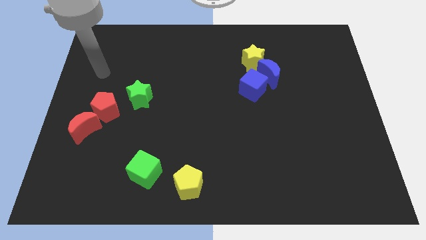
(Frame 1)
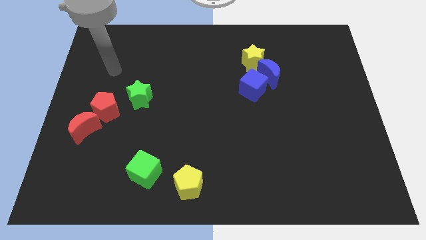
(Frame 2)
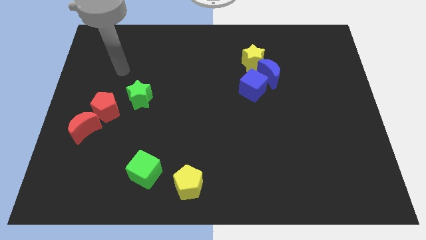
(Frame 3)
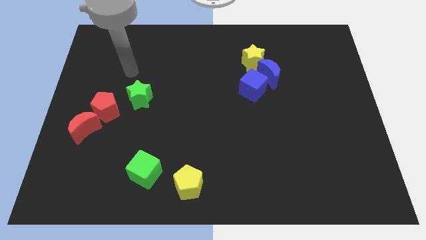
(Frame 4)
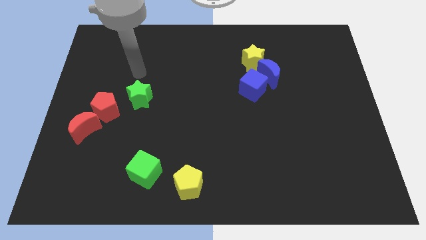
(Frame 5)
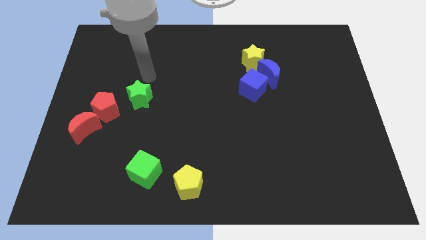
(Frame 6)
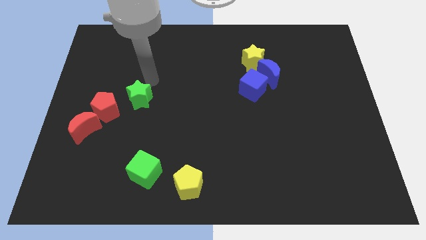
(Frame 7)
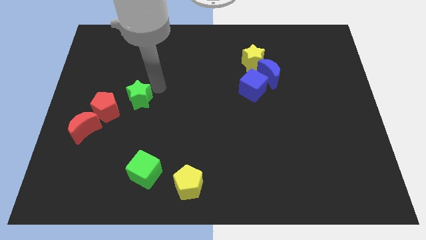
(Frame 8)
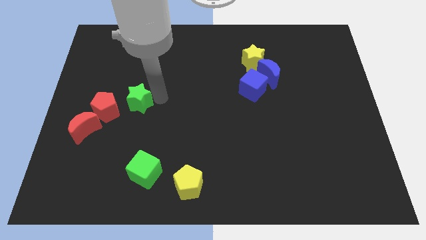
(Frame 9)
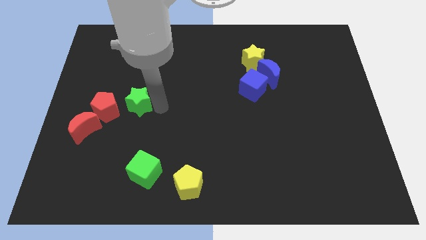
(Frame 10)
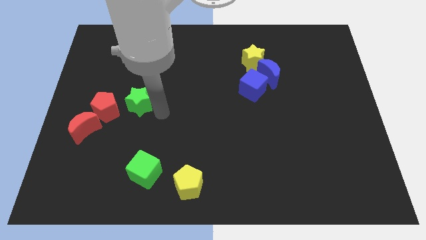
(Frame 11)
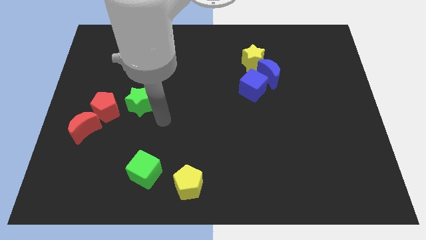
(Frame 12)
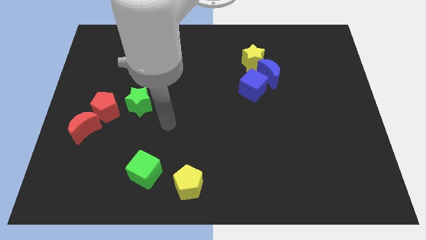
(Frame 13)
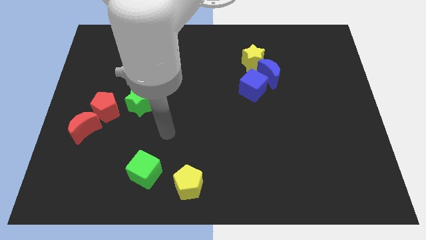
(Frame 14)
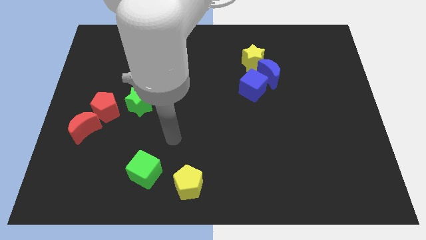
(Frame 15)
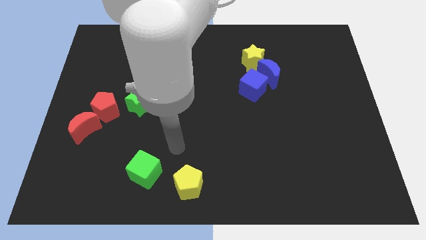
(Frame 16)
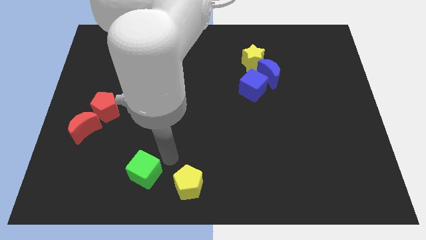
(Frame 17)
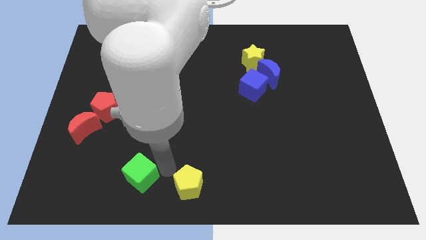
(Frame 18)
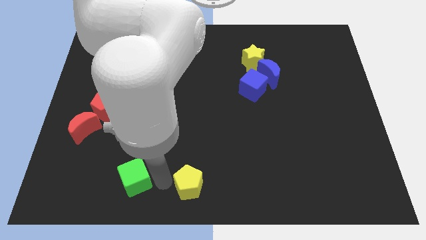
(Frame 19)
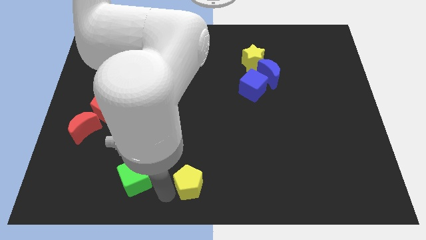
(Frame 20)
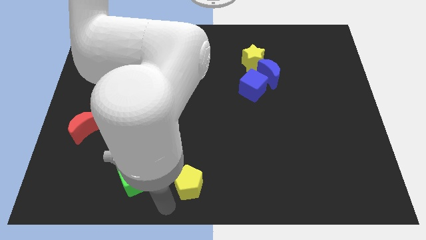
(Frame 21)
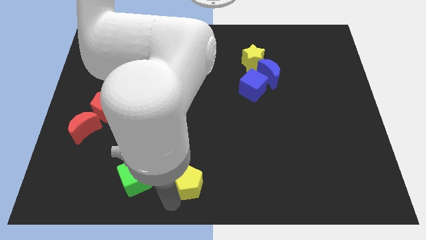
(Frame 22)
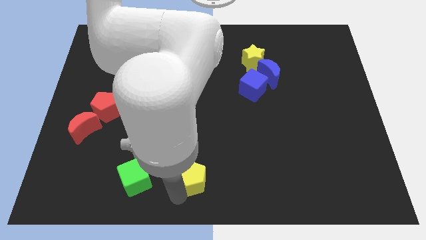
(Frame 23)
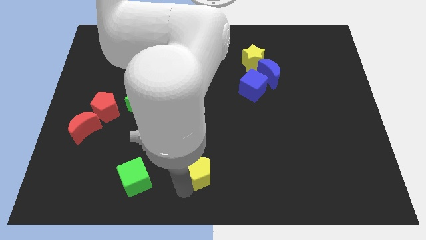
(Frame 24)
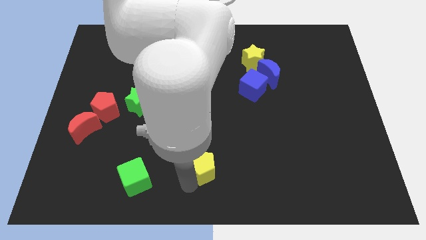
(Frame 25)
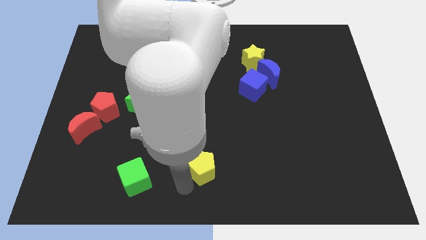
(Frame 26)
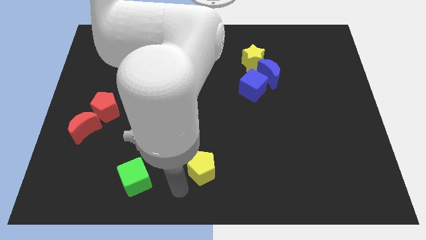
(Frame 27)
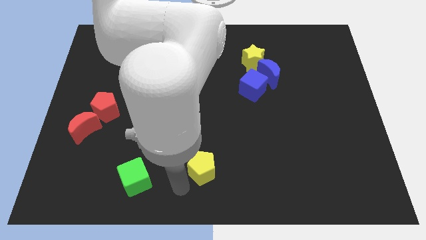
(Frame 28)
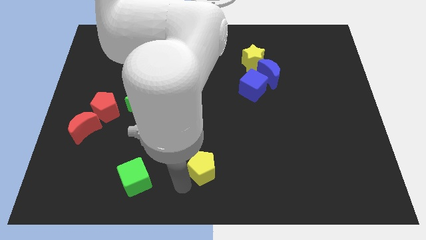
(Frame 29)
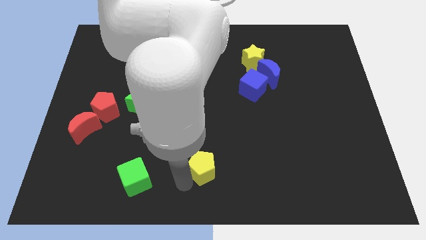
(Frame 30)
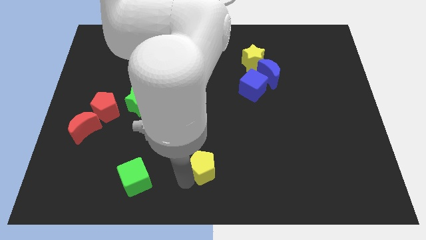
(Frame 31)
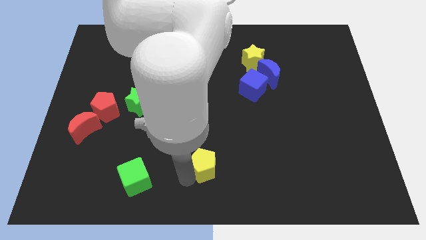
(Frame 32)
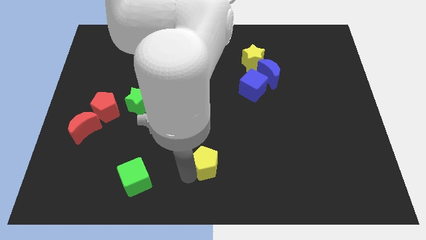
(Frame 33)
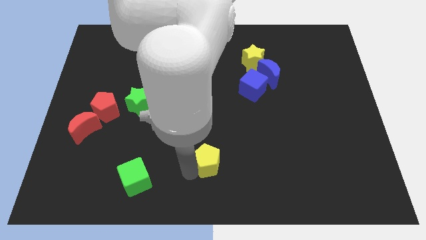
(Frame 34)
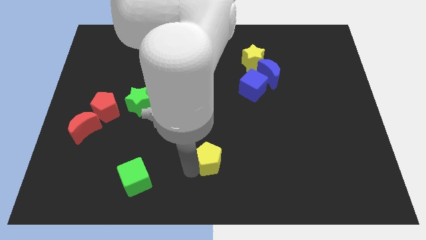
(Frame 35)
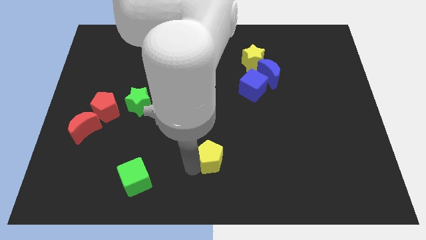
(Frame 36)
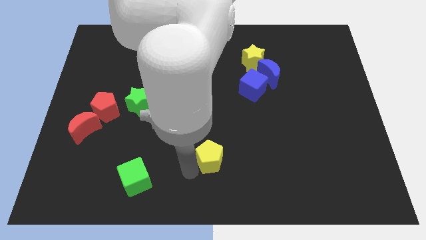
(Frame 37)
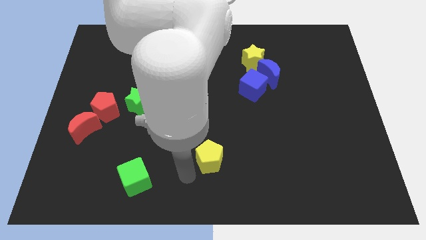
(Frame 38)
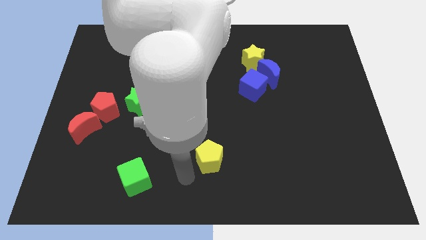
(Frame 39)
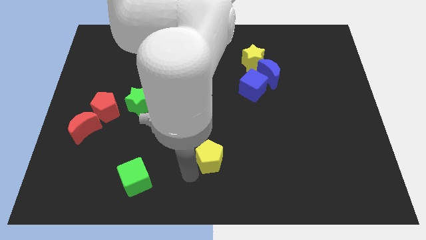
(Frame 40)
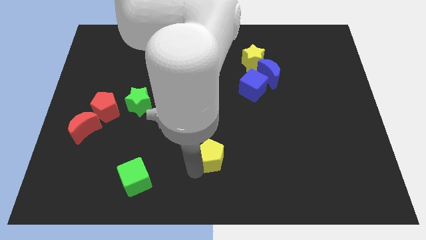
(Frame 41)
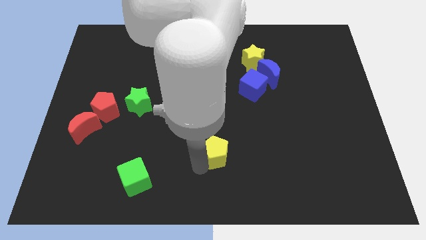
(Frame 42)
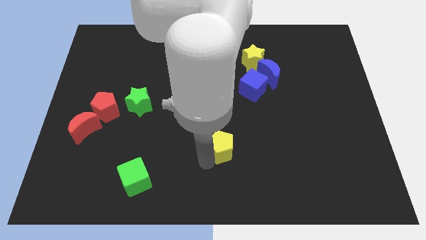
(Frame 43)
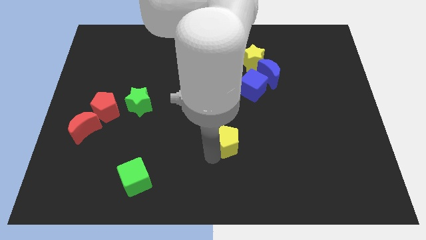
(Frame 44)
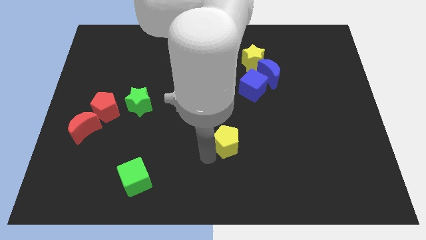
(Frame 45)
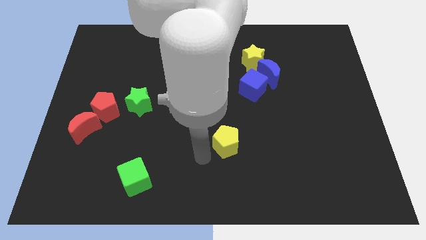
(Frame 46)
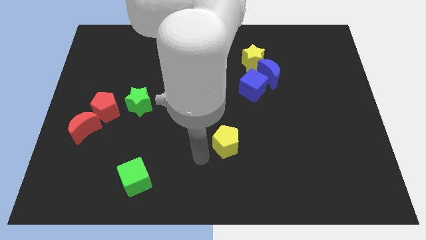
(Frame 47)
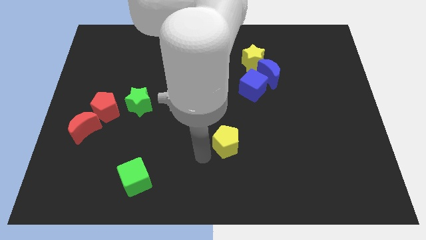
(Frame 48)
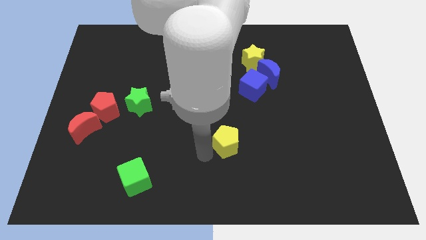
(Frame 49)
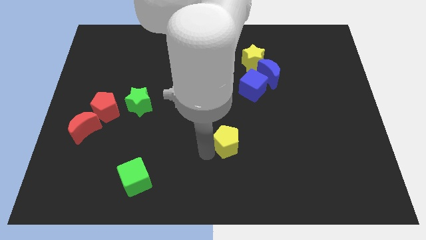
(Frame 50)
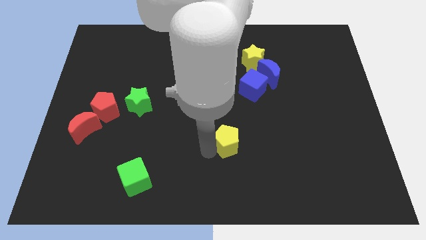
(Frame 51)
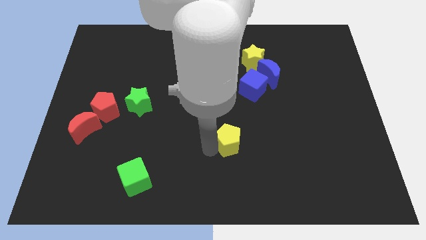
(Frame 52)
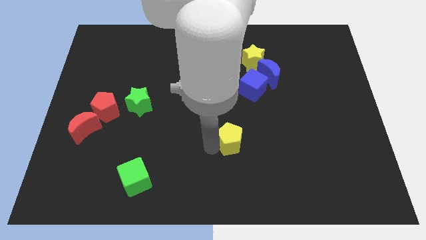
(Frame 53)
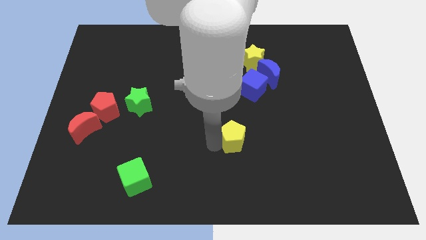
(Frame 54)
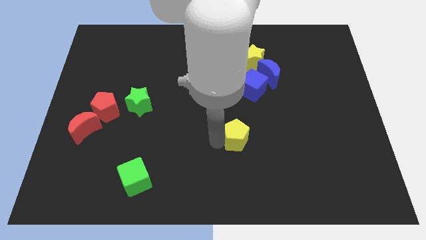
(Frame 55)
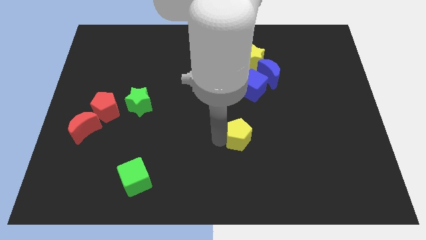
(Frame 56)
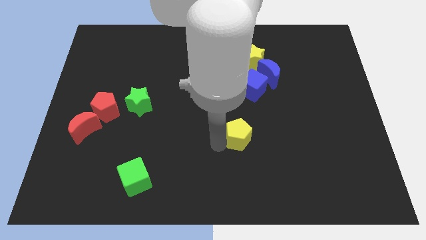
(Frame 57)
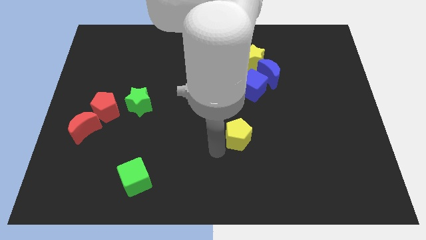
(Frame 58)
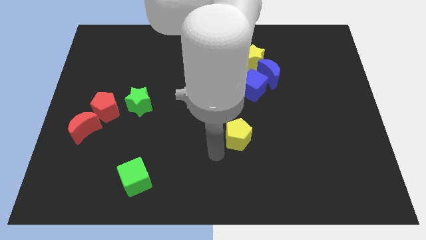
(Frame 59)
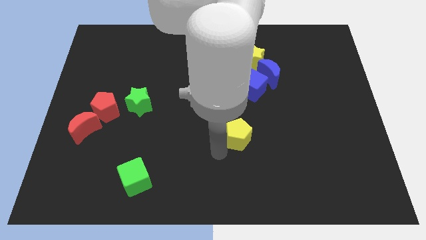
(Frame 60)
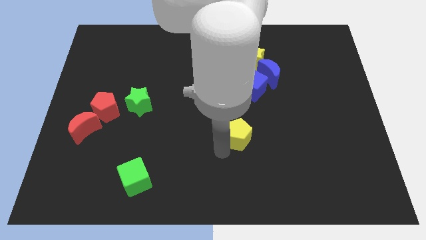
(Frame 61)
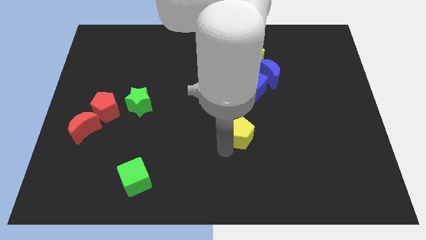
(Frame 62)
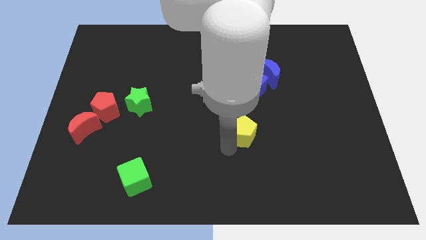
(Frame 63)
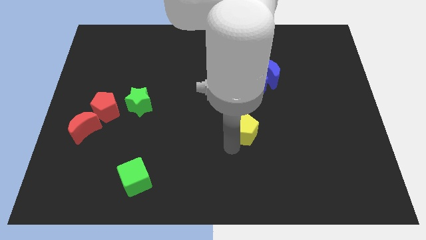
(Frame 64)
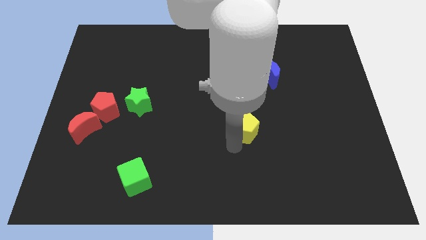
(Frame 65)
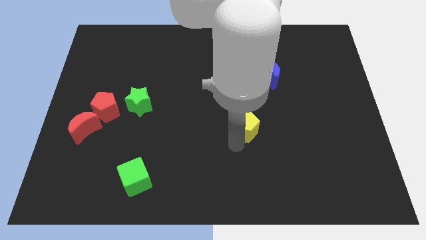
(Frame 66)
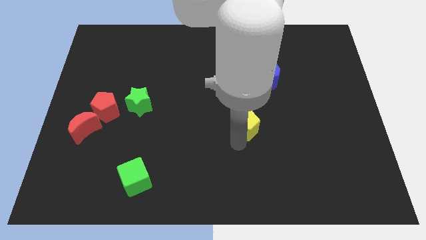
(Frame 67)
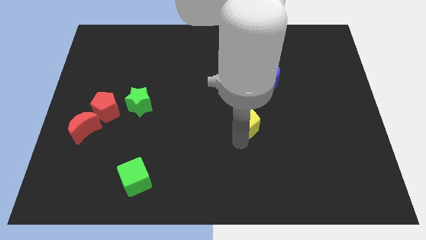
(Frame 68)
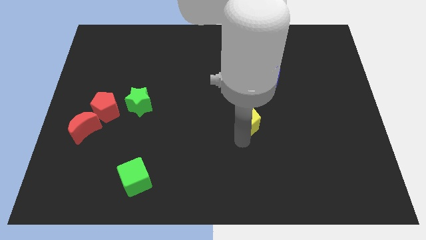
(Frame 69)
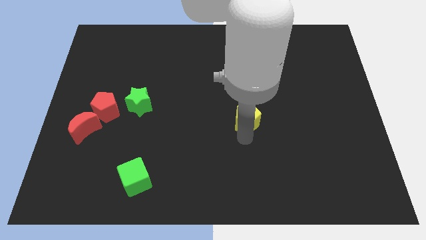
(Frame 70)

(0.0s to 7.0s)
slide the yellow pentagon upwards and right

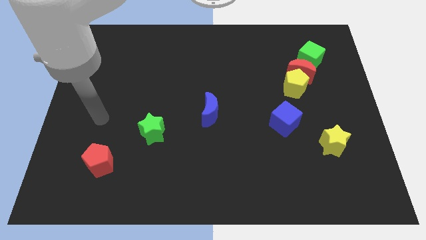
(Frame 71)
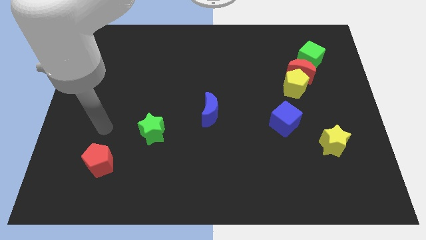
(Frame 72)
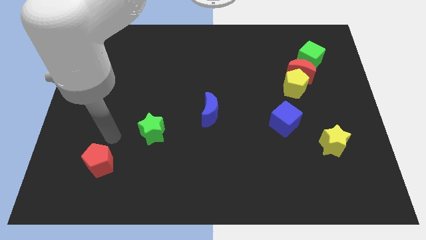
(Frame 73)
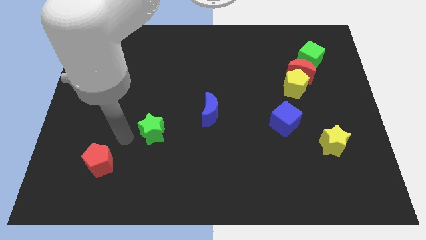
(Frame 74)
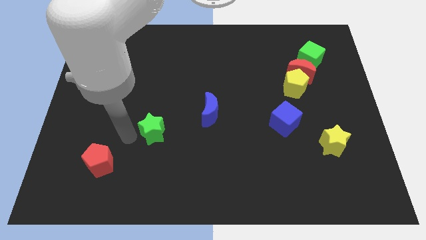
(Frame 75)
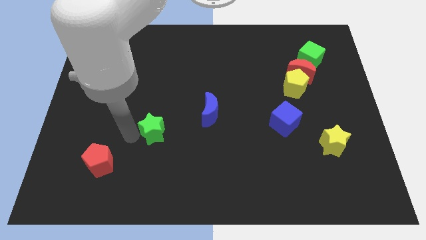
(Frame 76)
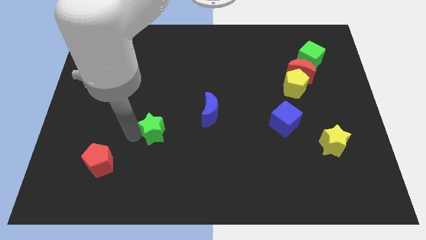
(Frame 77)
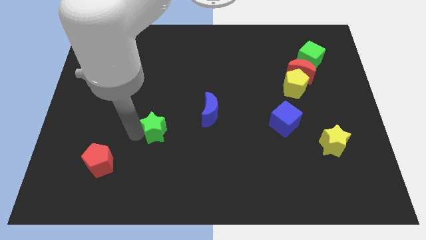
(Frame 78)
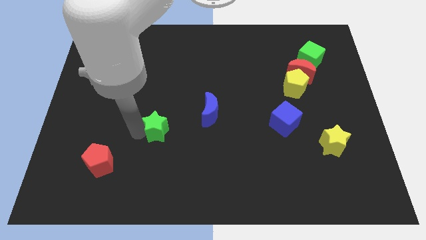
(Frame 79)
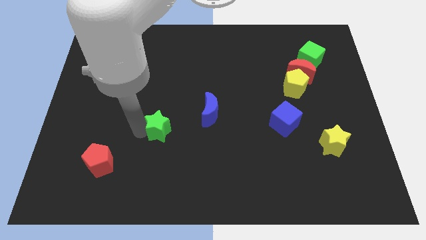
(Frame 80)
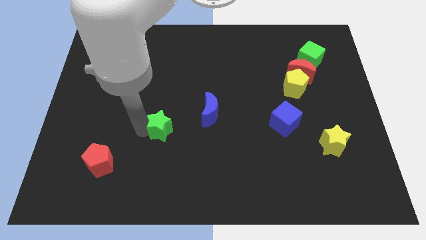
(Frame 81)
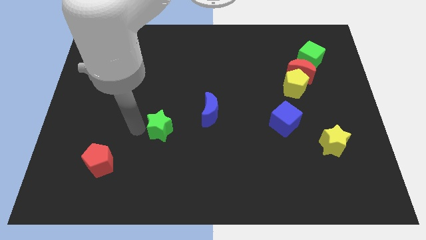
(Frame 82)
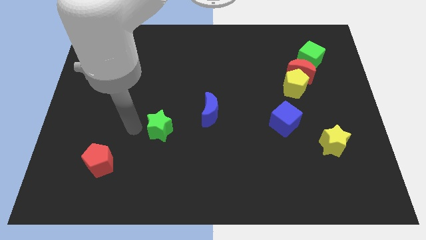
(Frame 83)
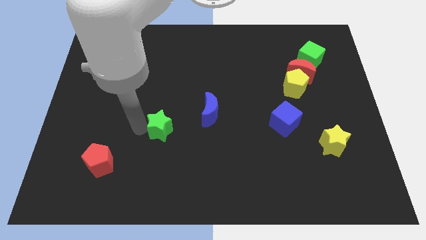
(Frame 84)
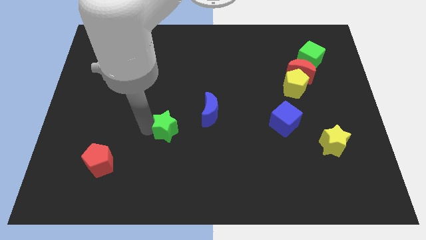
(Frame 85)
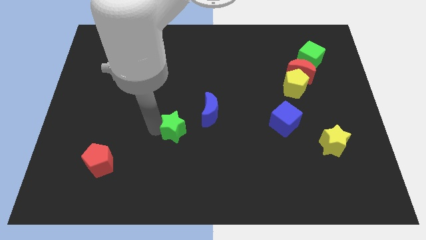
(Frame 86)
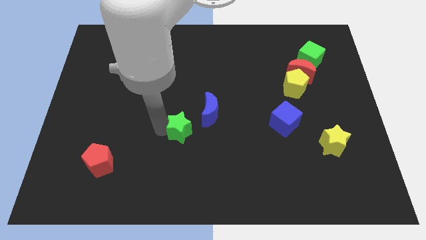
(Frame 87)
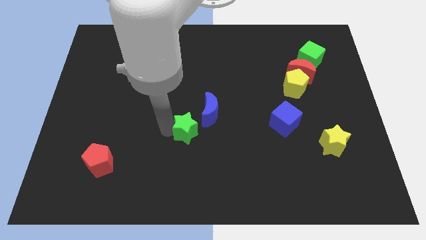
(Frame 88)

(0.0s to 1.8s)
push the green star a little bit right
